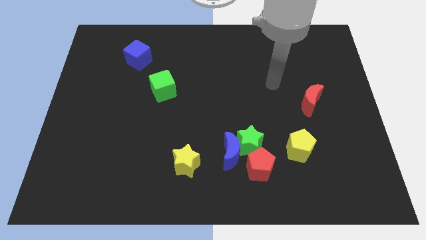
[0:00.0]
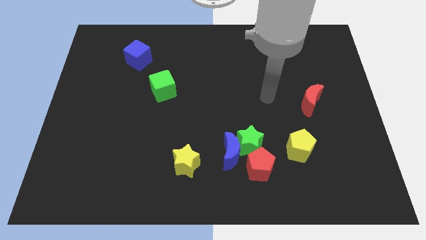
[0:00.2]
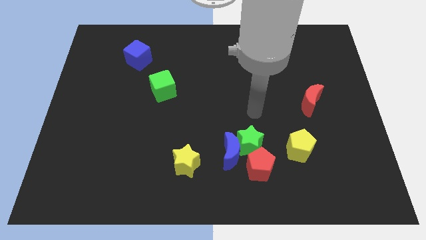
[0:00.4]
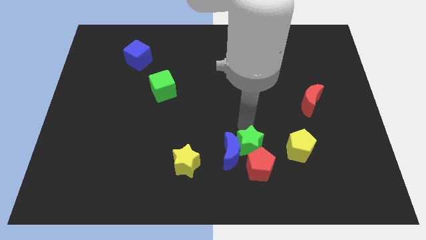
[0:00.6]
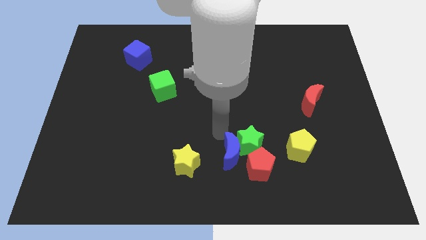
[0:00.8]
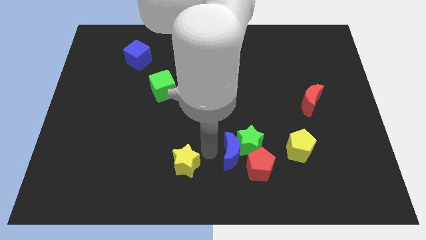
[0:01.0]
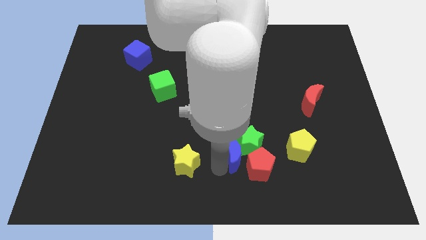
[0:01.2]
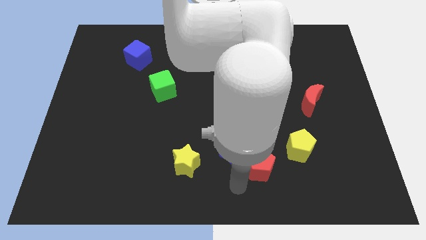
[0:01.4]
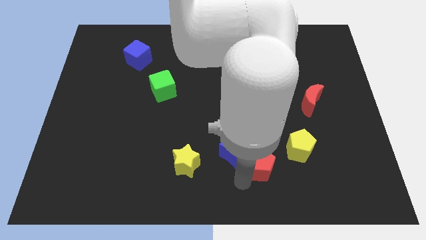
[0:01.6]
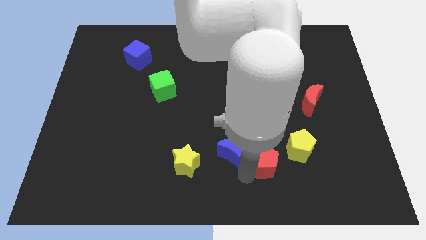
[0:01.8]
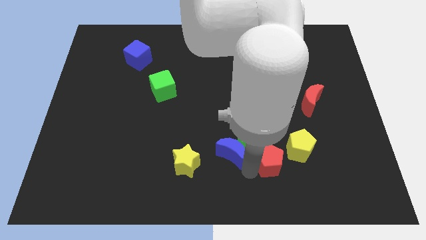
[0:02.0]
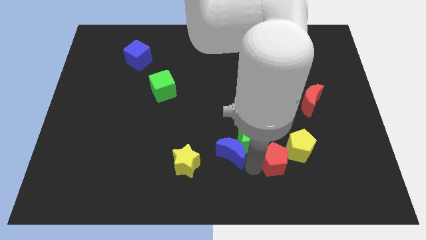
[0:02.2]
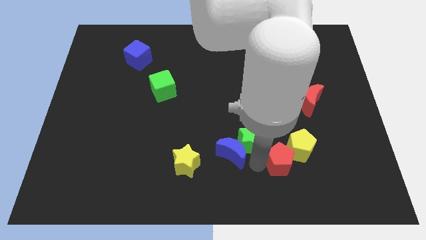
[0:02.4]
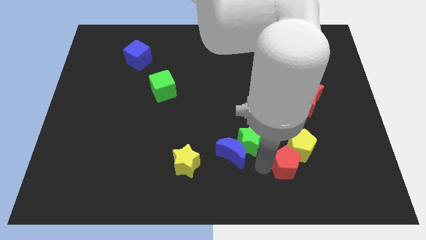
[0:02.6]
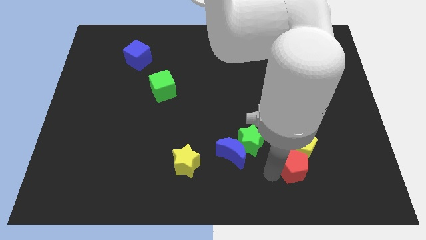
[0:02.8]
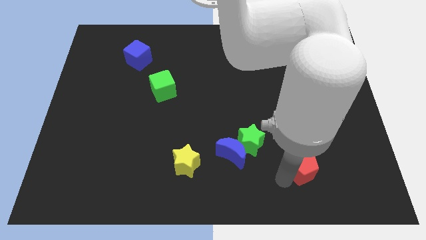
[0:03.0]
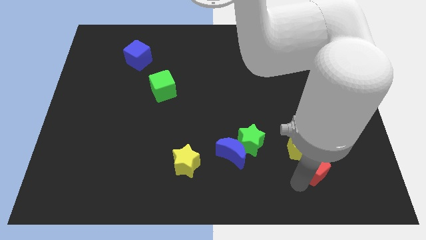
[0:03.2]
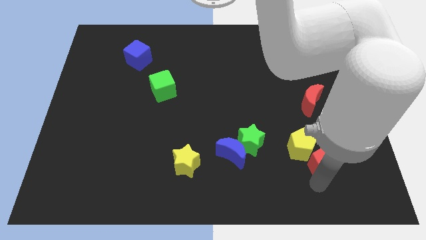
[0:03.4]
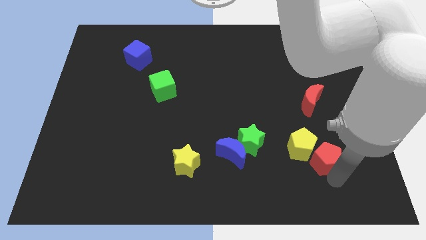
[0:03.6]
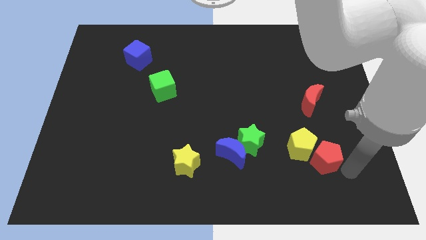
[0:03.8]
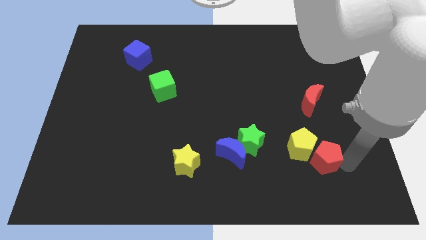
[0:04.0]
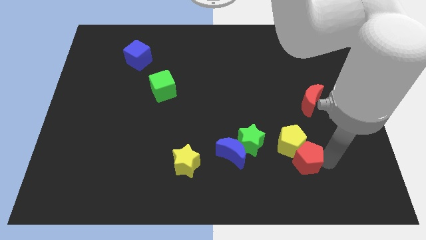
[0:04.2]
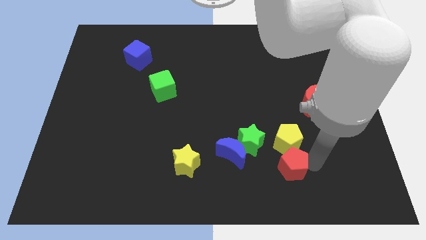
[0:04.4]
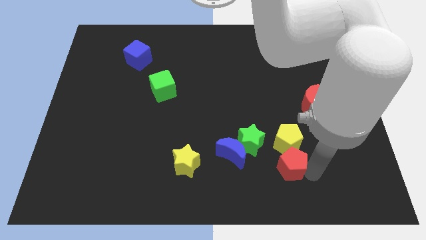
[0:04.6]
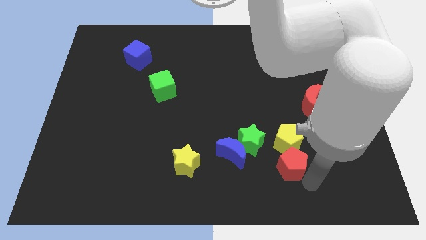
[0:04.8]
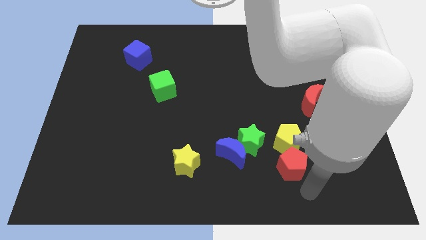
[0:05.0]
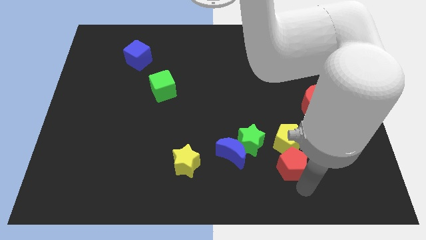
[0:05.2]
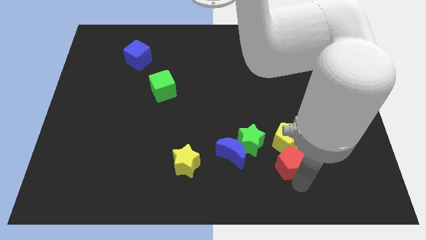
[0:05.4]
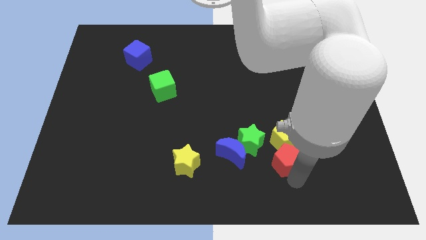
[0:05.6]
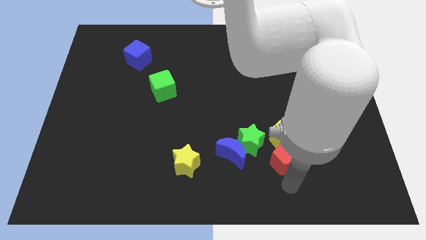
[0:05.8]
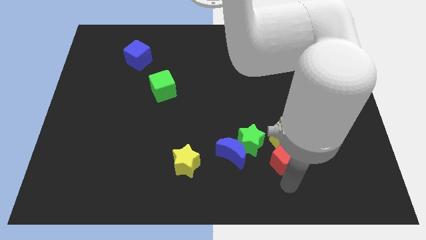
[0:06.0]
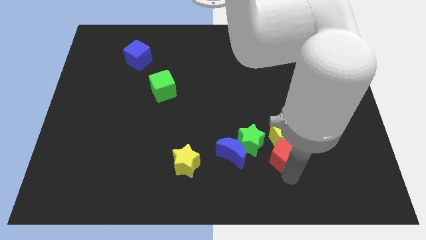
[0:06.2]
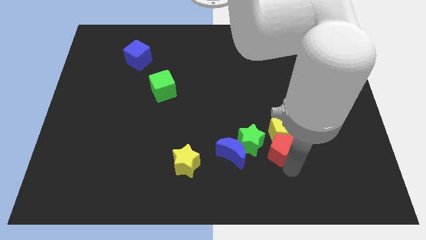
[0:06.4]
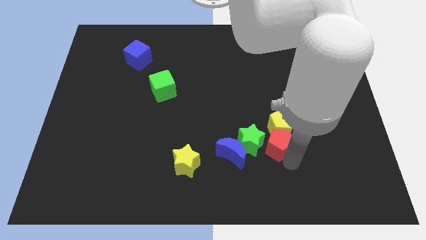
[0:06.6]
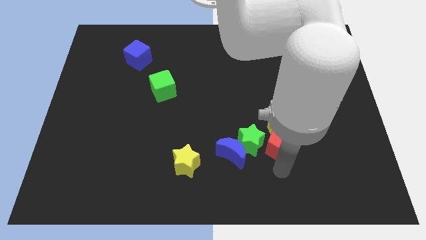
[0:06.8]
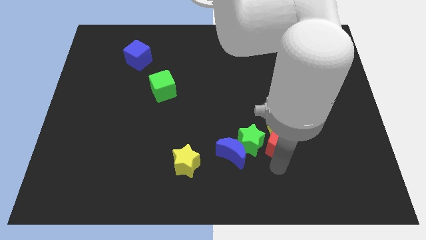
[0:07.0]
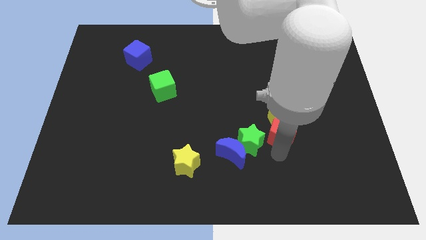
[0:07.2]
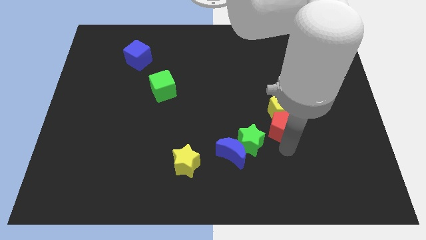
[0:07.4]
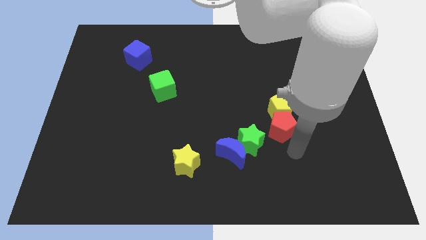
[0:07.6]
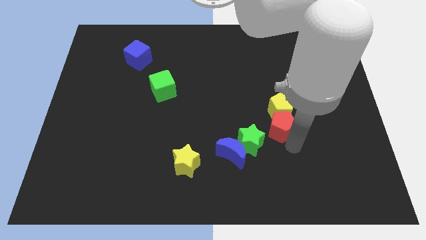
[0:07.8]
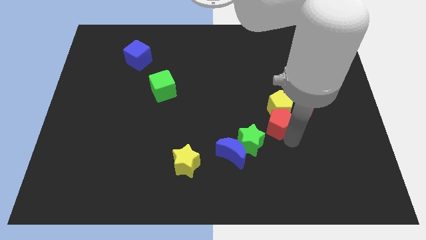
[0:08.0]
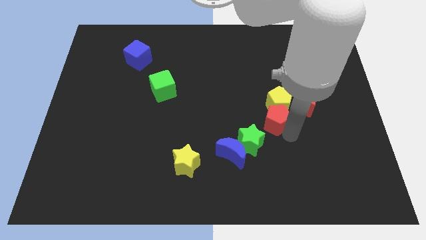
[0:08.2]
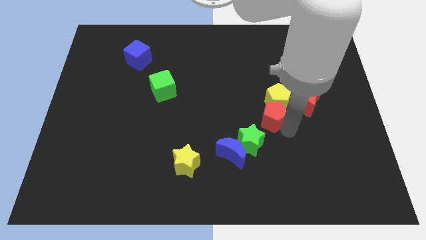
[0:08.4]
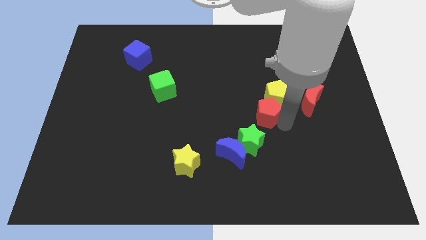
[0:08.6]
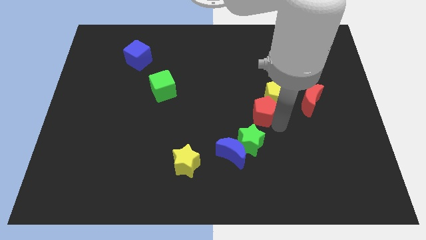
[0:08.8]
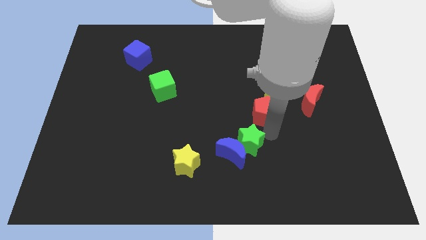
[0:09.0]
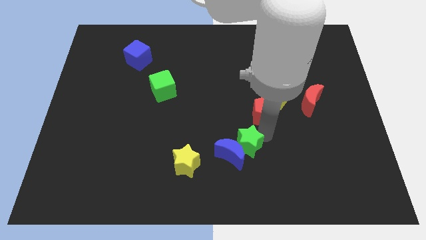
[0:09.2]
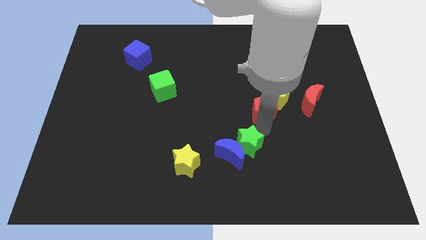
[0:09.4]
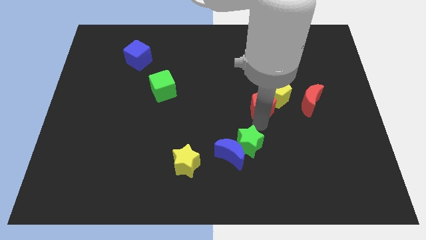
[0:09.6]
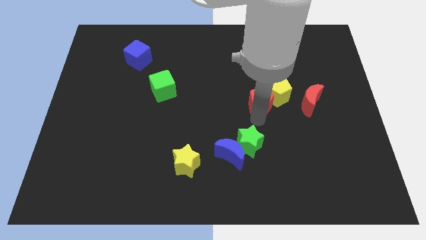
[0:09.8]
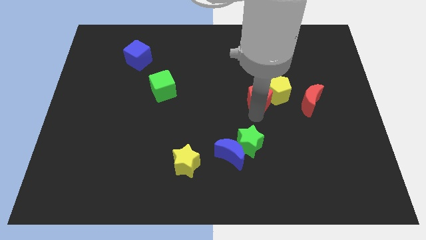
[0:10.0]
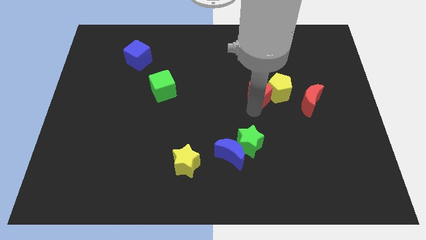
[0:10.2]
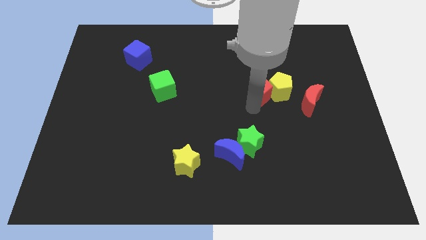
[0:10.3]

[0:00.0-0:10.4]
move the red pentagon up

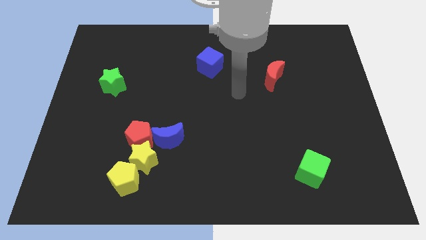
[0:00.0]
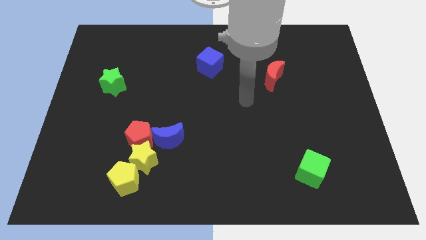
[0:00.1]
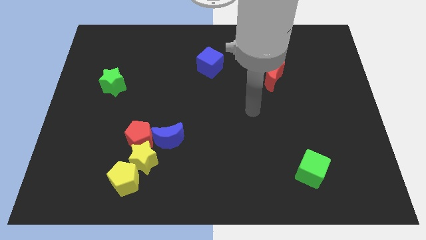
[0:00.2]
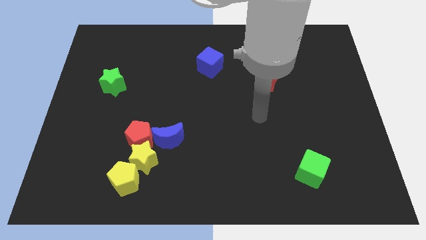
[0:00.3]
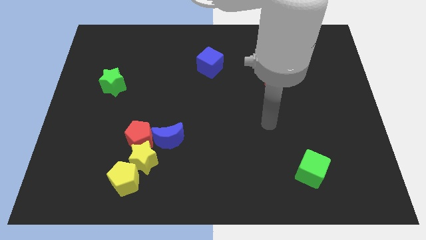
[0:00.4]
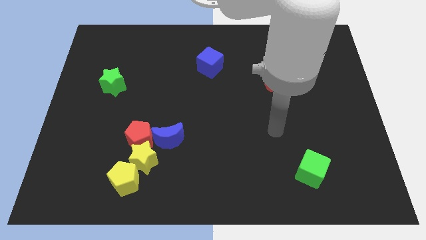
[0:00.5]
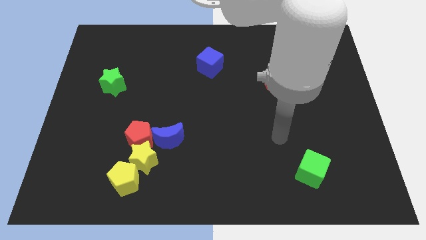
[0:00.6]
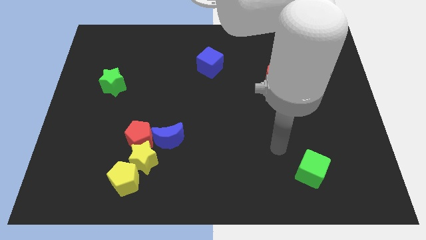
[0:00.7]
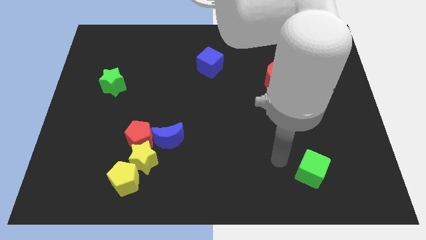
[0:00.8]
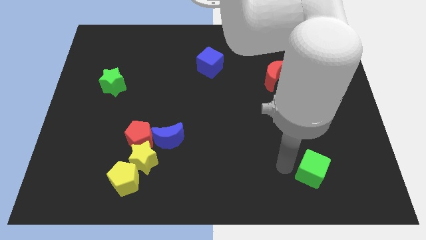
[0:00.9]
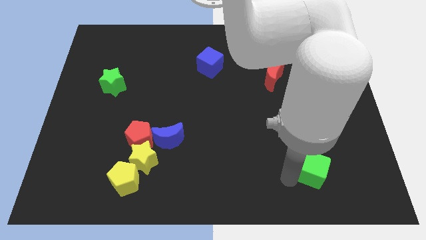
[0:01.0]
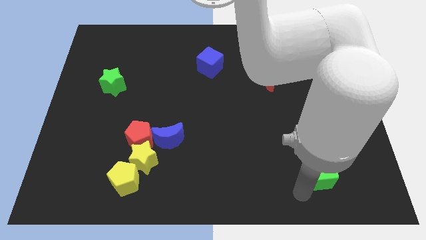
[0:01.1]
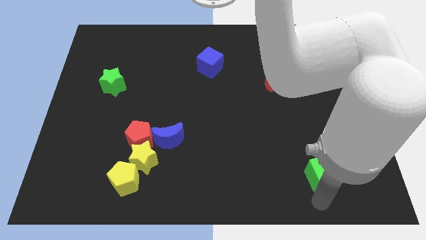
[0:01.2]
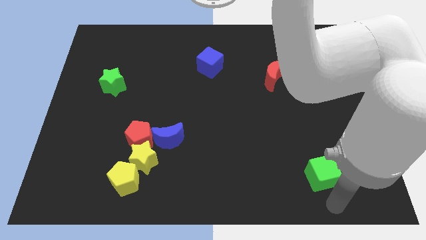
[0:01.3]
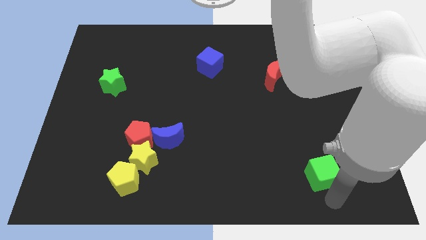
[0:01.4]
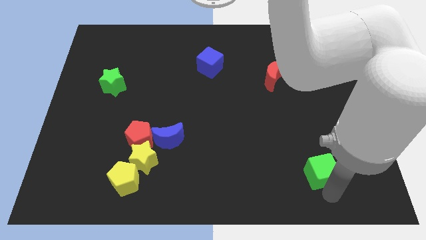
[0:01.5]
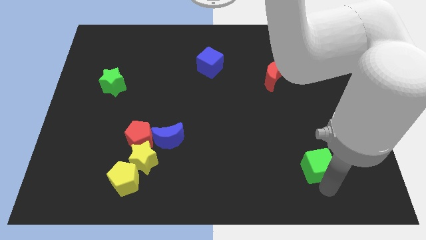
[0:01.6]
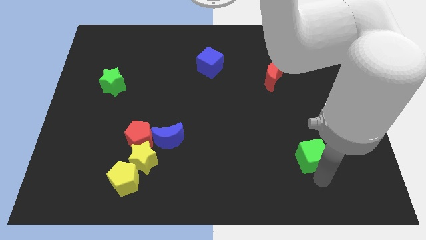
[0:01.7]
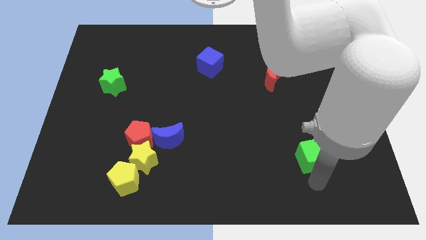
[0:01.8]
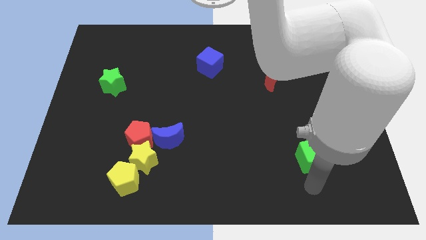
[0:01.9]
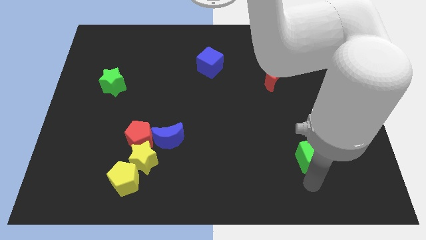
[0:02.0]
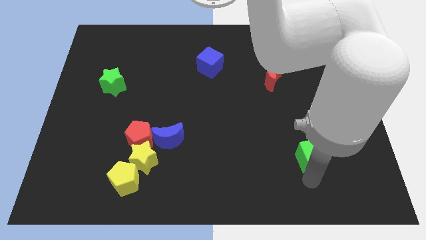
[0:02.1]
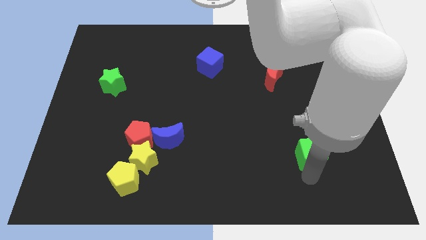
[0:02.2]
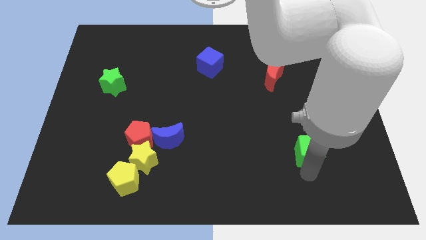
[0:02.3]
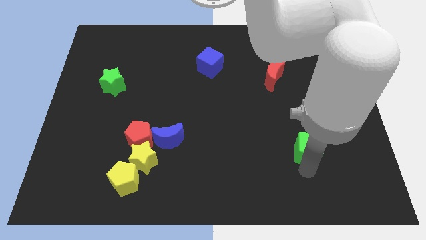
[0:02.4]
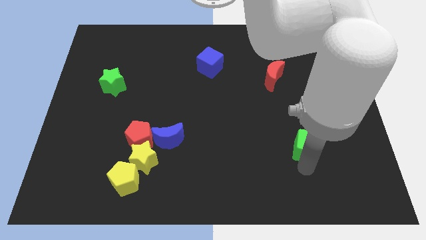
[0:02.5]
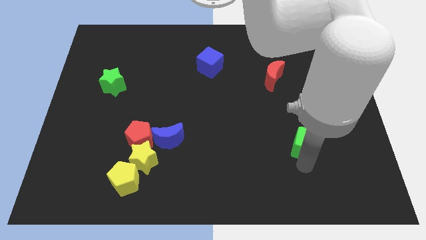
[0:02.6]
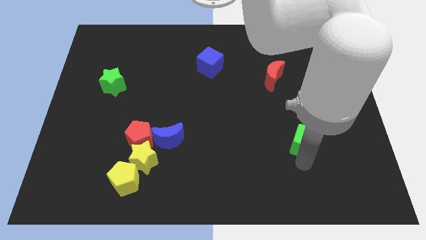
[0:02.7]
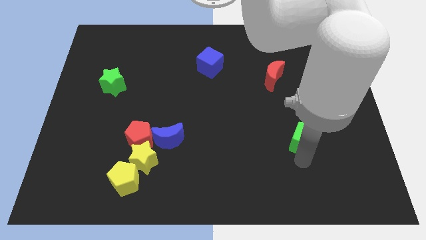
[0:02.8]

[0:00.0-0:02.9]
push the green cube up a little
